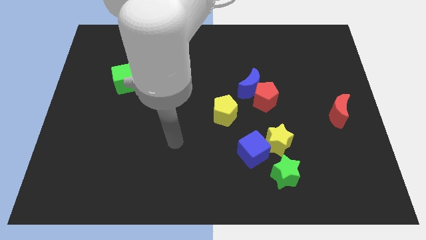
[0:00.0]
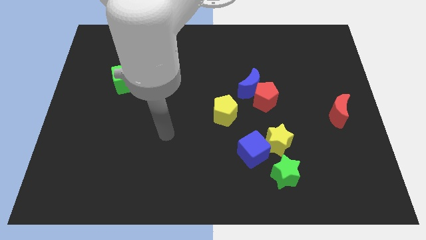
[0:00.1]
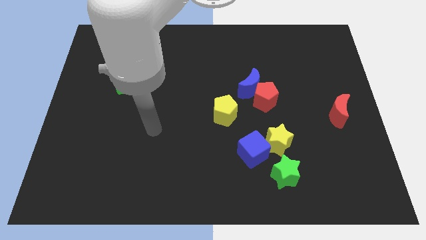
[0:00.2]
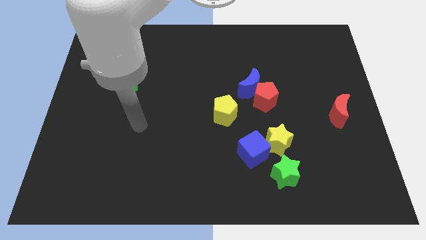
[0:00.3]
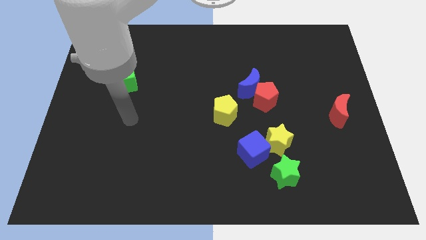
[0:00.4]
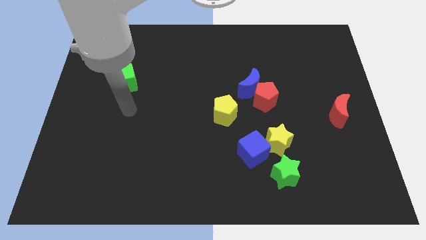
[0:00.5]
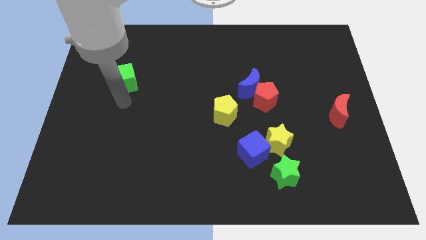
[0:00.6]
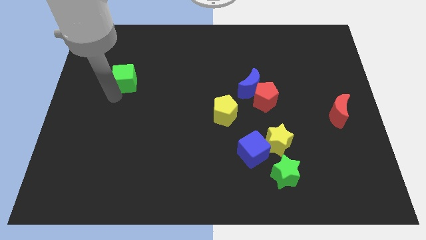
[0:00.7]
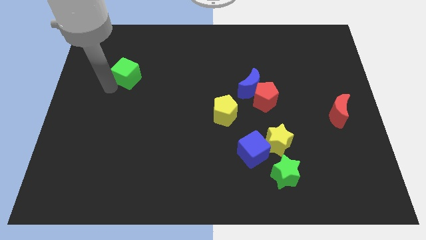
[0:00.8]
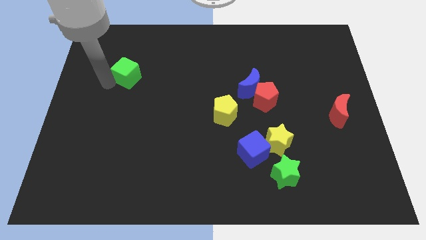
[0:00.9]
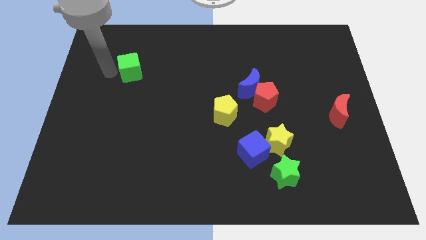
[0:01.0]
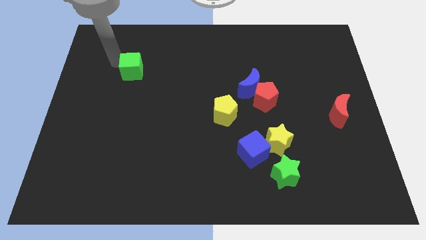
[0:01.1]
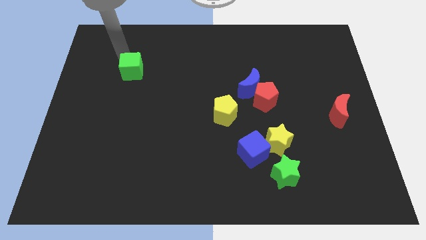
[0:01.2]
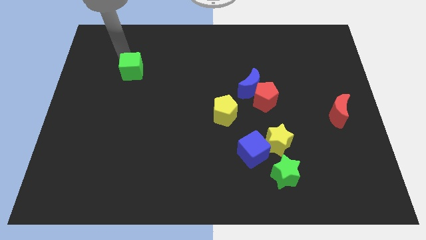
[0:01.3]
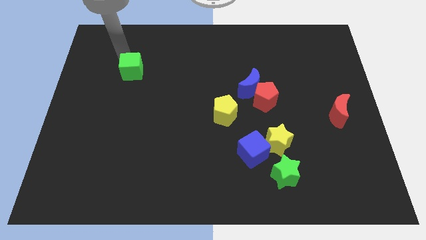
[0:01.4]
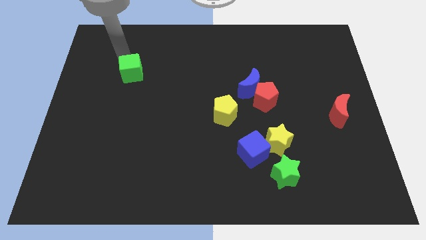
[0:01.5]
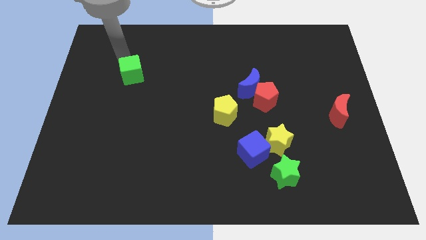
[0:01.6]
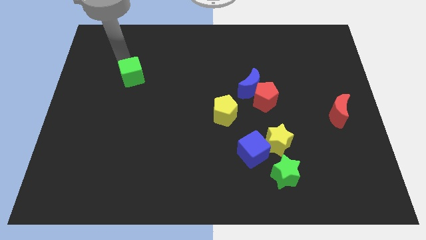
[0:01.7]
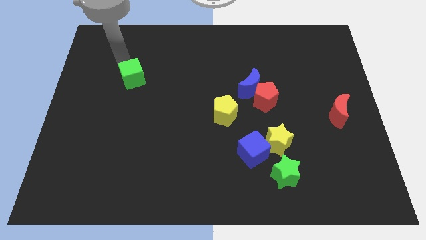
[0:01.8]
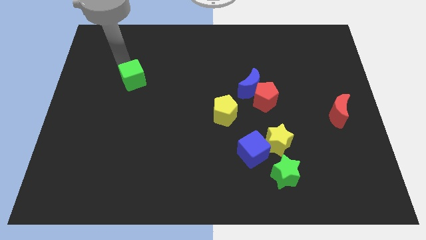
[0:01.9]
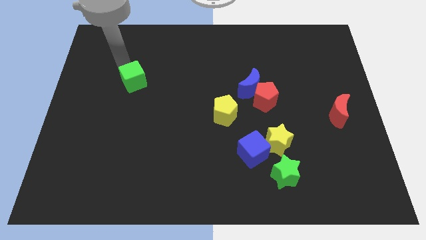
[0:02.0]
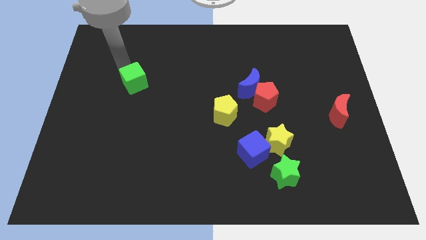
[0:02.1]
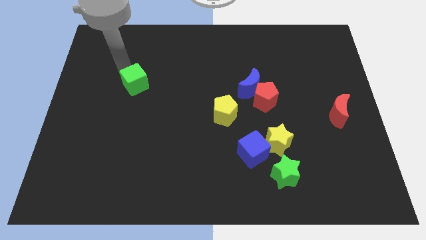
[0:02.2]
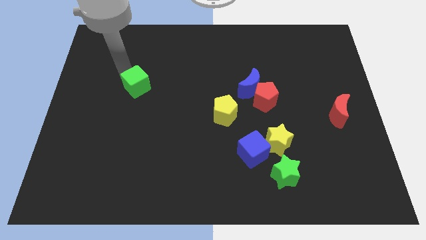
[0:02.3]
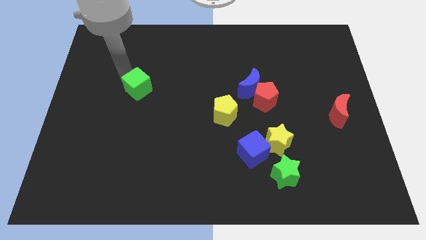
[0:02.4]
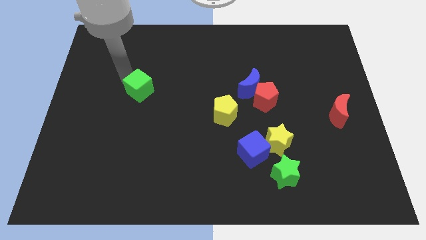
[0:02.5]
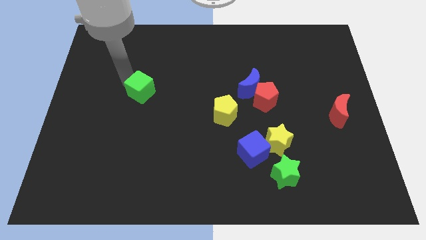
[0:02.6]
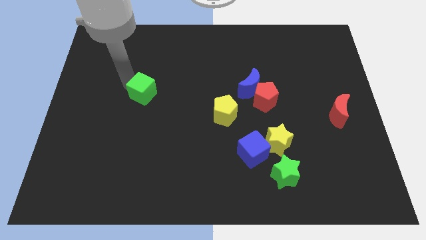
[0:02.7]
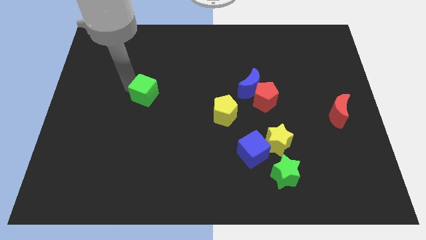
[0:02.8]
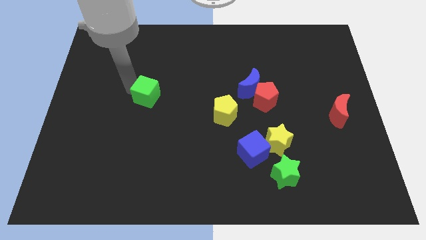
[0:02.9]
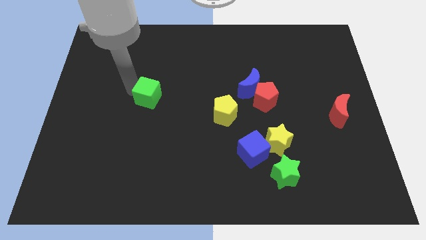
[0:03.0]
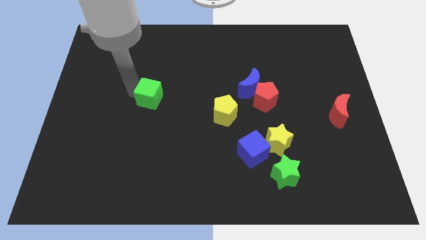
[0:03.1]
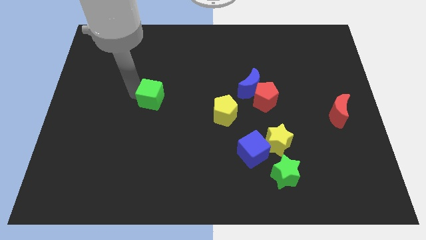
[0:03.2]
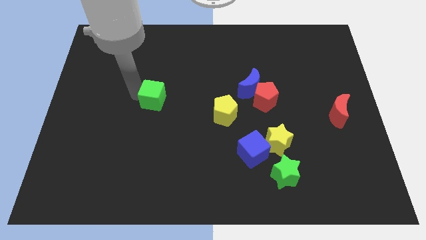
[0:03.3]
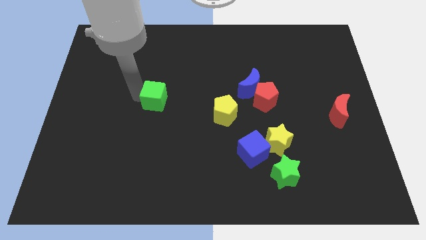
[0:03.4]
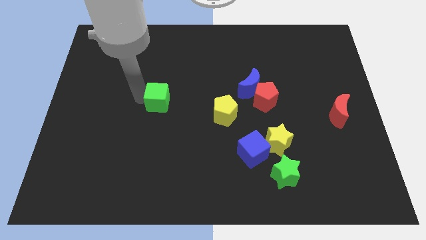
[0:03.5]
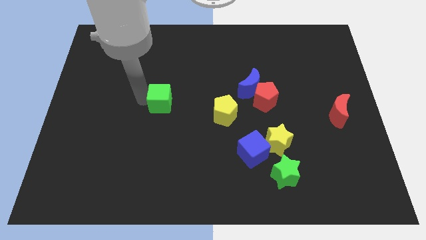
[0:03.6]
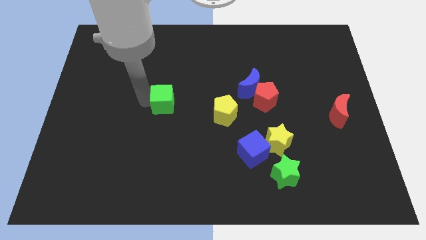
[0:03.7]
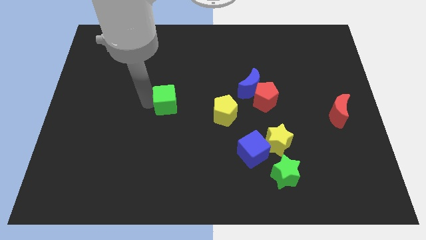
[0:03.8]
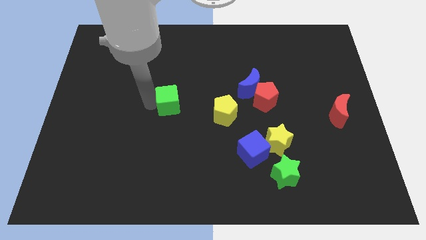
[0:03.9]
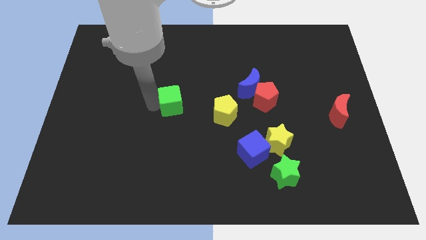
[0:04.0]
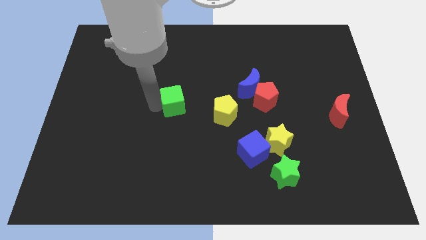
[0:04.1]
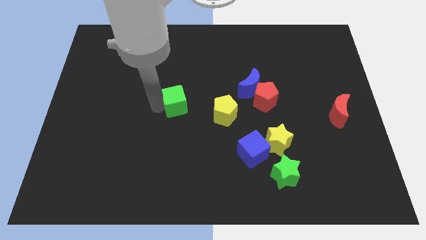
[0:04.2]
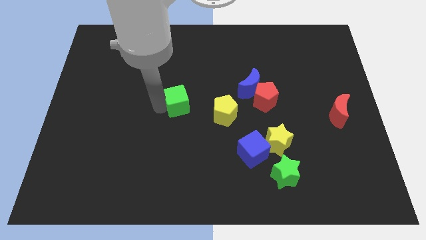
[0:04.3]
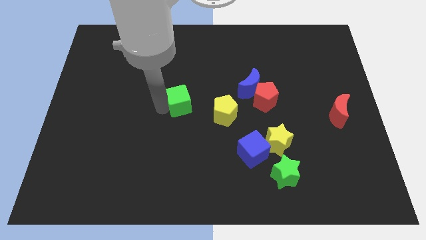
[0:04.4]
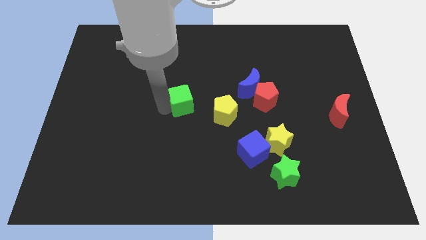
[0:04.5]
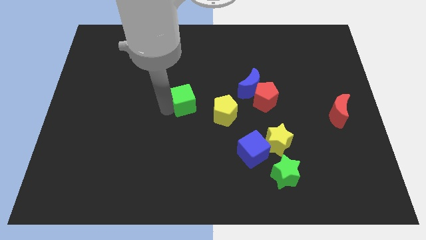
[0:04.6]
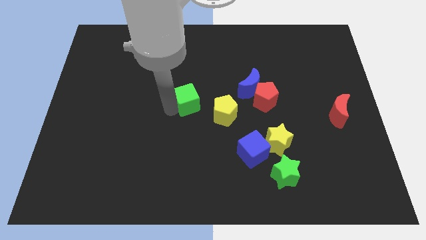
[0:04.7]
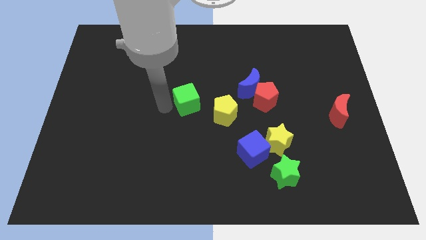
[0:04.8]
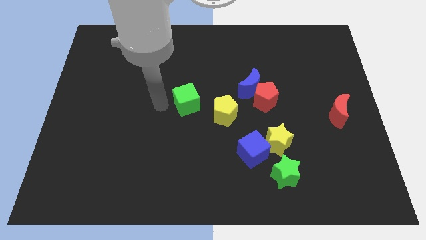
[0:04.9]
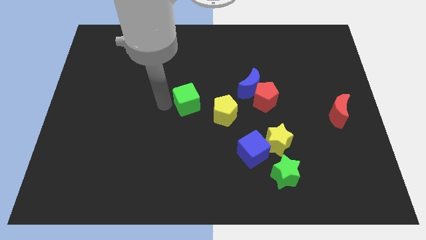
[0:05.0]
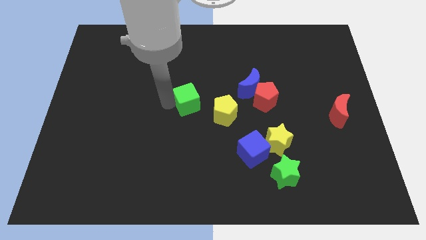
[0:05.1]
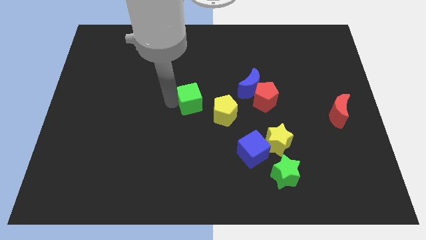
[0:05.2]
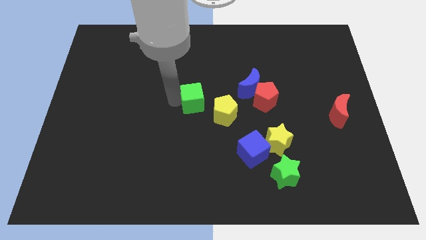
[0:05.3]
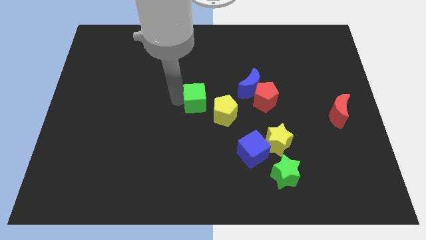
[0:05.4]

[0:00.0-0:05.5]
slide the green cube left of the red pentagon

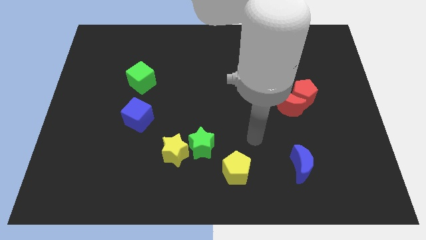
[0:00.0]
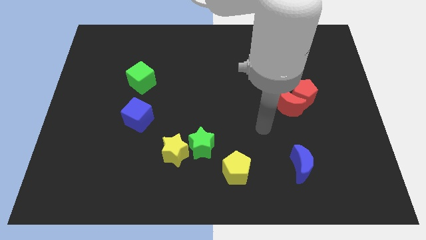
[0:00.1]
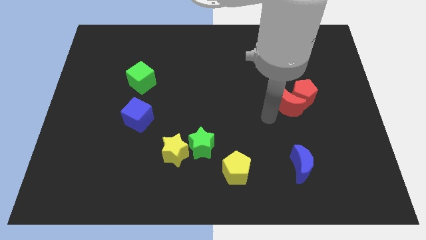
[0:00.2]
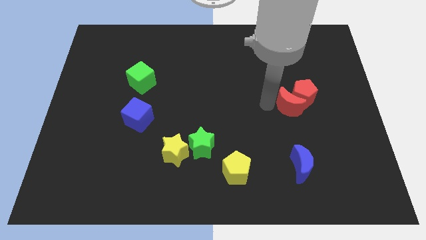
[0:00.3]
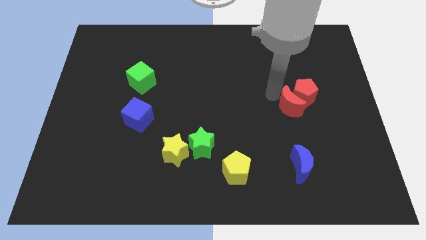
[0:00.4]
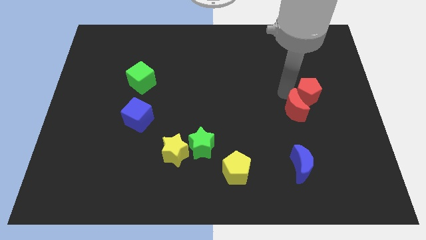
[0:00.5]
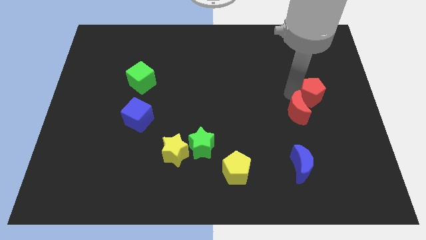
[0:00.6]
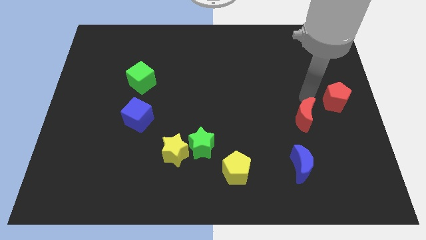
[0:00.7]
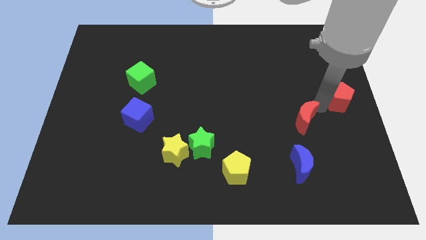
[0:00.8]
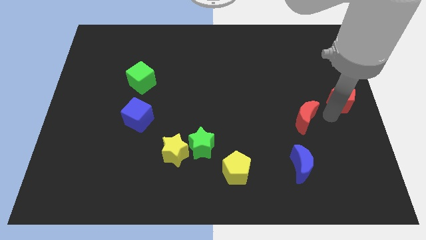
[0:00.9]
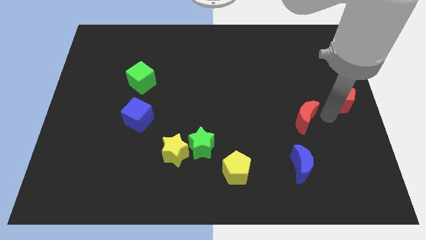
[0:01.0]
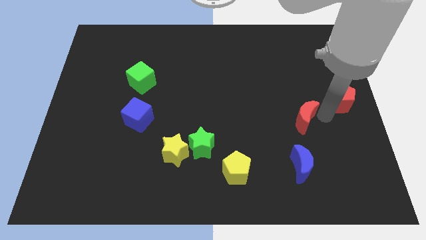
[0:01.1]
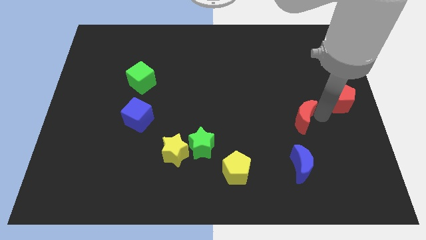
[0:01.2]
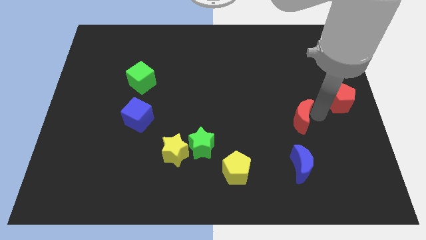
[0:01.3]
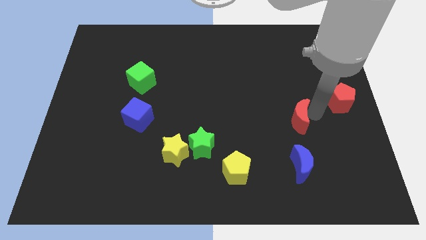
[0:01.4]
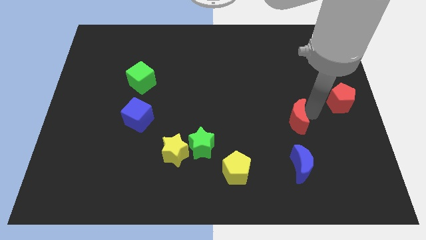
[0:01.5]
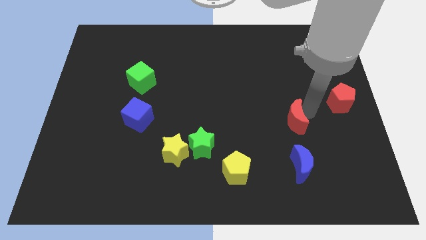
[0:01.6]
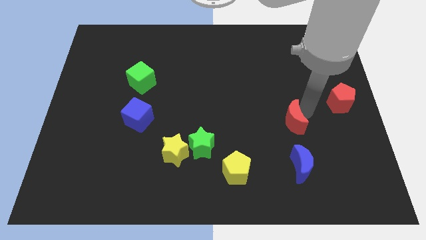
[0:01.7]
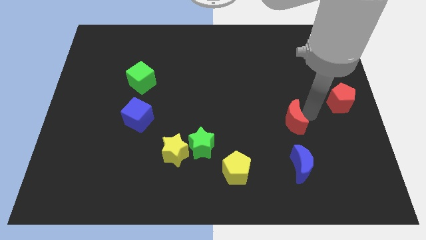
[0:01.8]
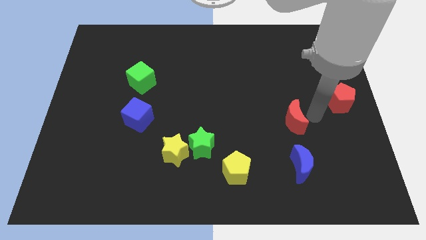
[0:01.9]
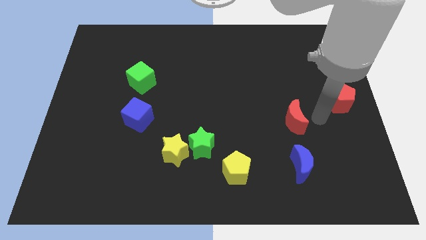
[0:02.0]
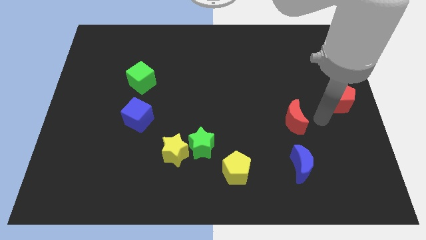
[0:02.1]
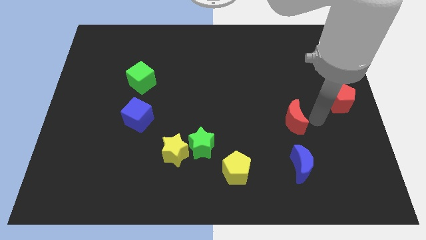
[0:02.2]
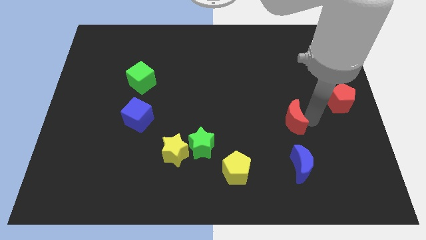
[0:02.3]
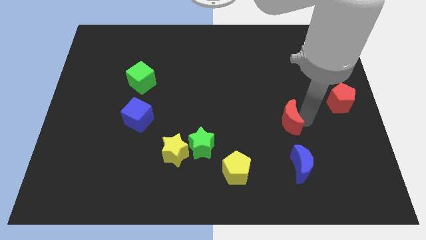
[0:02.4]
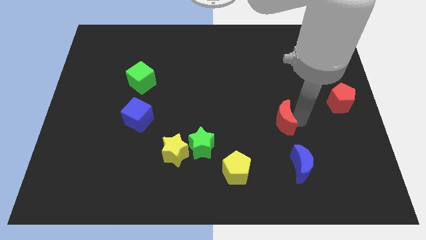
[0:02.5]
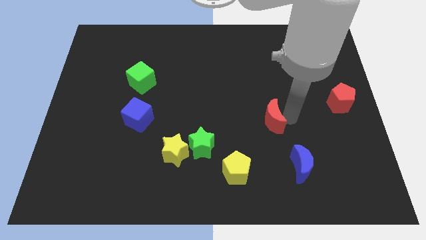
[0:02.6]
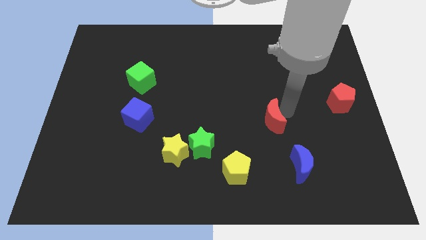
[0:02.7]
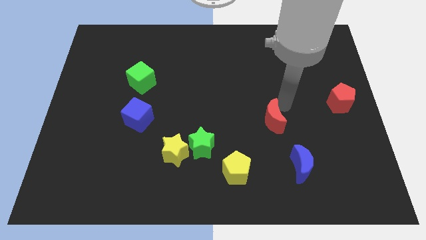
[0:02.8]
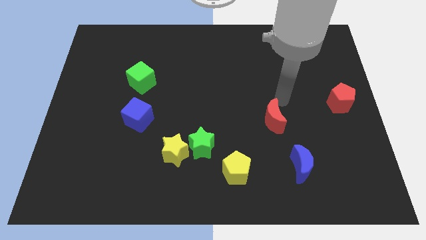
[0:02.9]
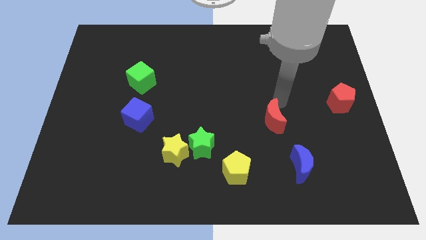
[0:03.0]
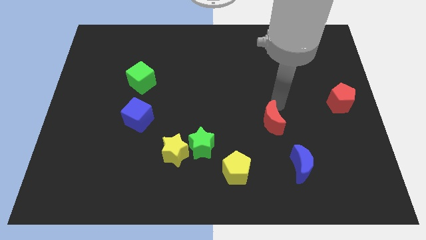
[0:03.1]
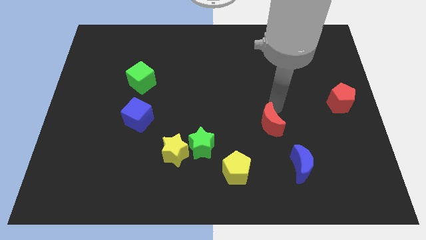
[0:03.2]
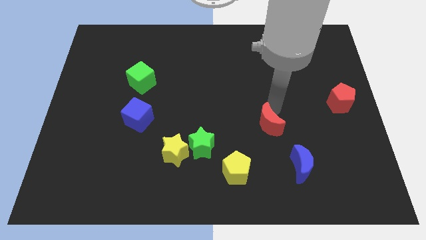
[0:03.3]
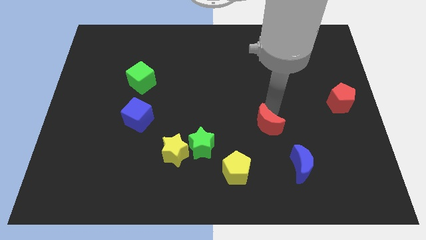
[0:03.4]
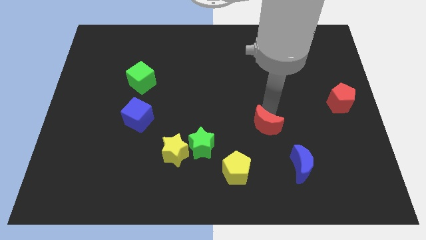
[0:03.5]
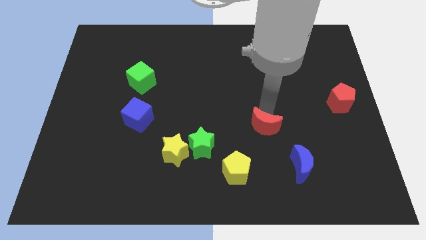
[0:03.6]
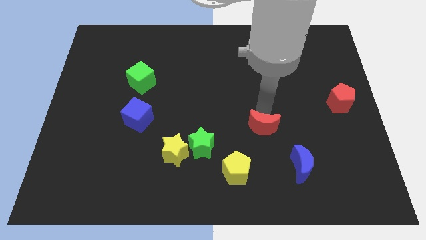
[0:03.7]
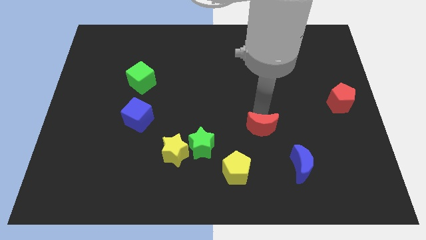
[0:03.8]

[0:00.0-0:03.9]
slide the red moon to the top right of the yellow pentagon
